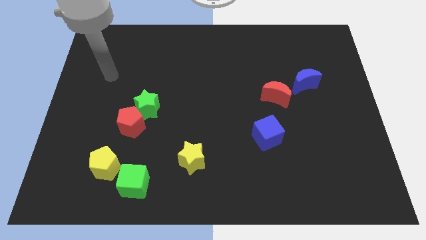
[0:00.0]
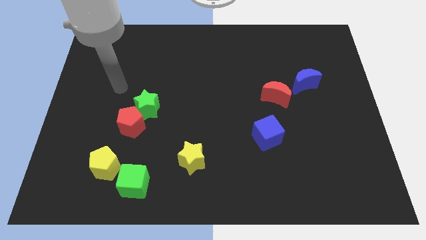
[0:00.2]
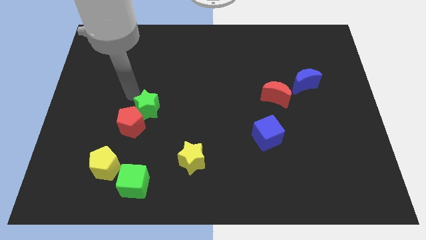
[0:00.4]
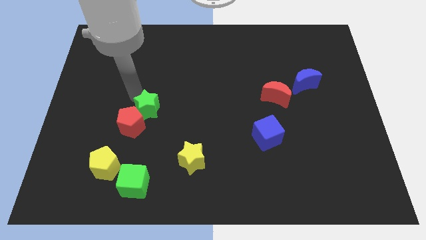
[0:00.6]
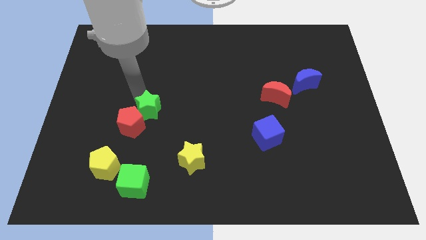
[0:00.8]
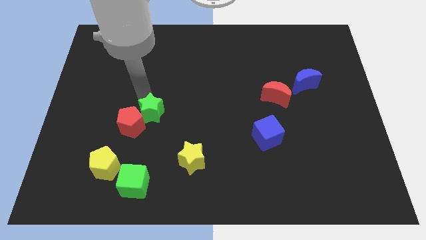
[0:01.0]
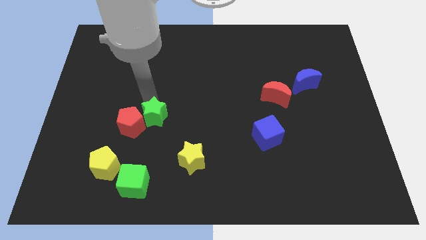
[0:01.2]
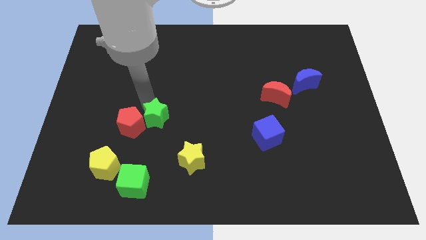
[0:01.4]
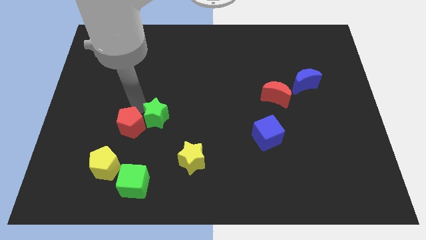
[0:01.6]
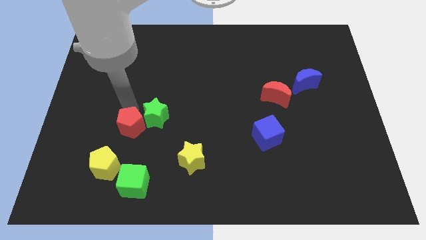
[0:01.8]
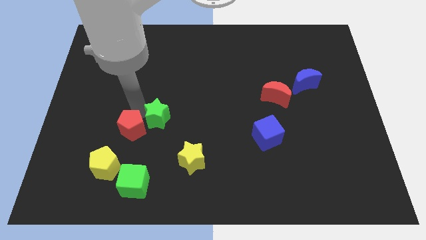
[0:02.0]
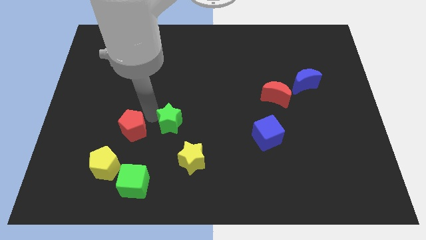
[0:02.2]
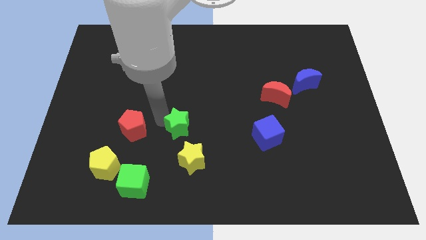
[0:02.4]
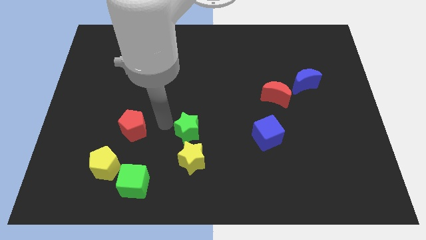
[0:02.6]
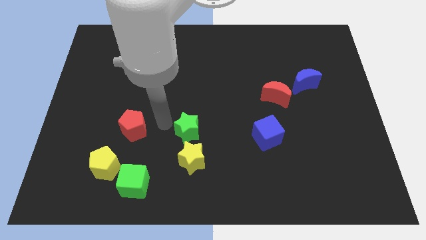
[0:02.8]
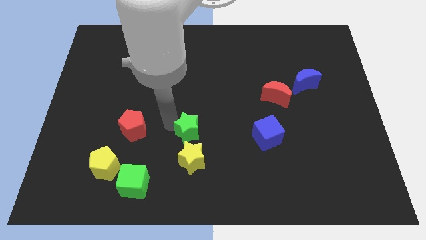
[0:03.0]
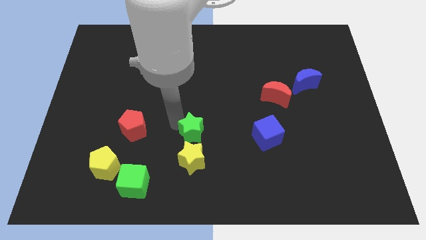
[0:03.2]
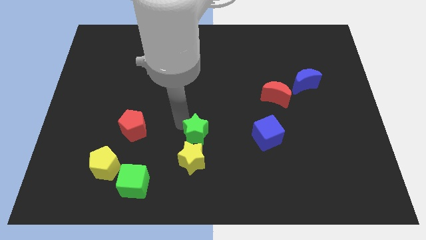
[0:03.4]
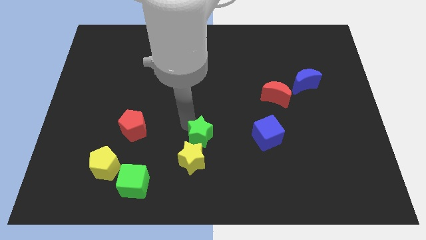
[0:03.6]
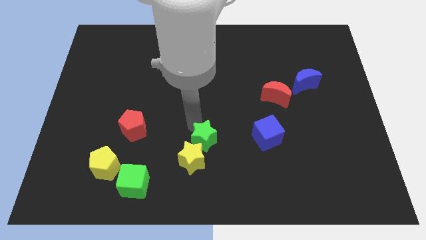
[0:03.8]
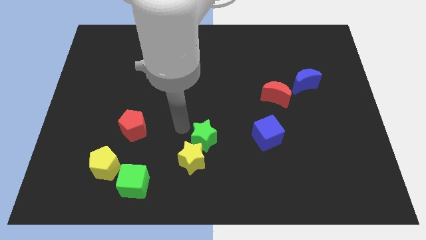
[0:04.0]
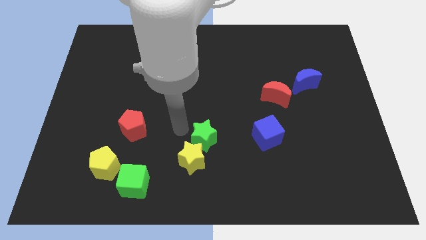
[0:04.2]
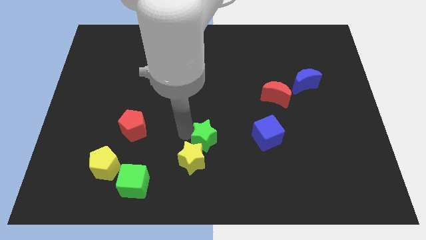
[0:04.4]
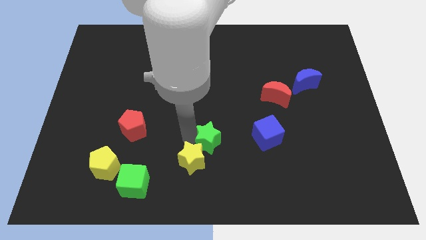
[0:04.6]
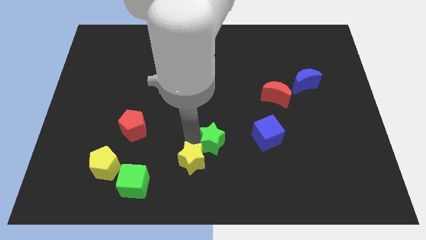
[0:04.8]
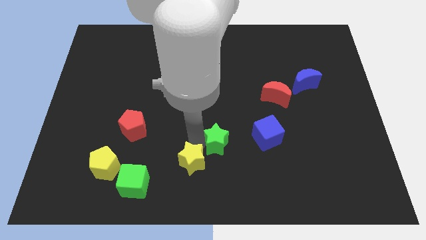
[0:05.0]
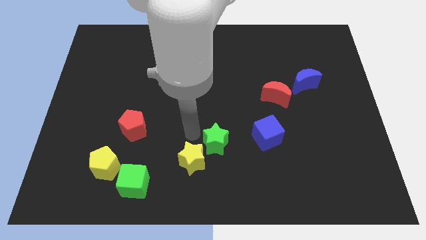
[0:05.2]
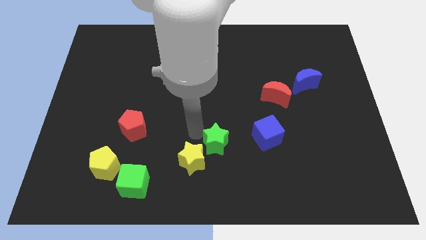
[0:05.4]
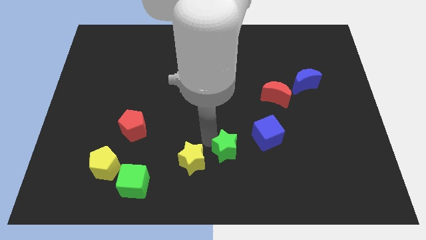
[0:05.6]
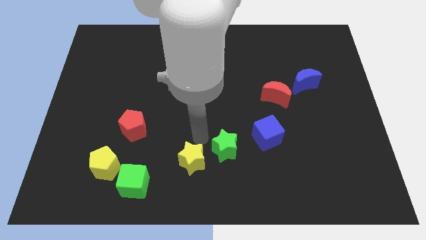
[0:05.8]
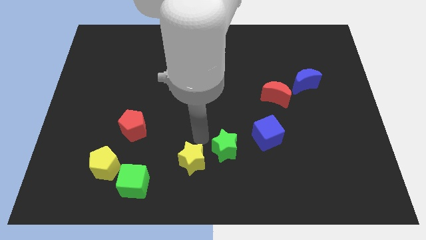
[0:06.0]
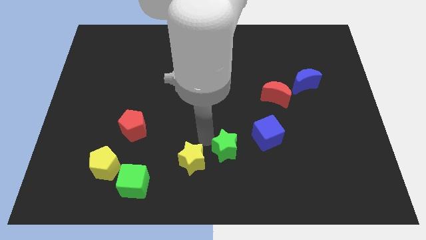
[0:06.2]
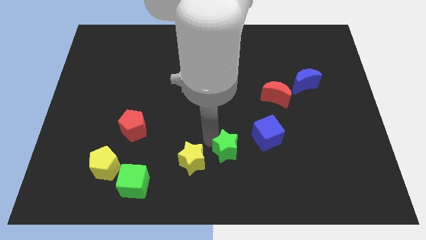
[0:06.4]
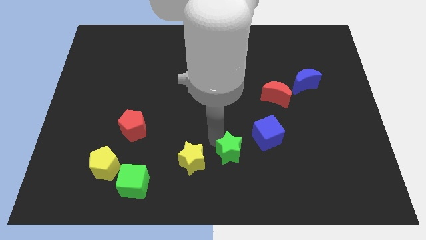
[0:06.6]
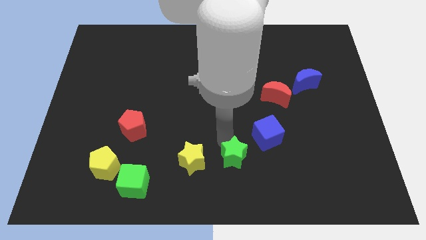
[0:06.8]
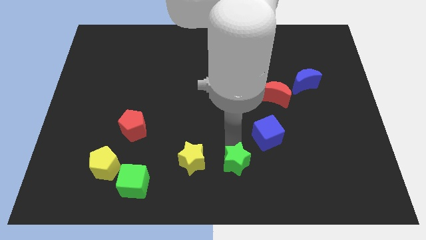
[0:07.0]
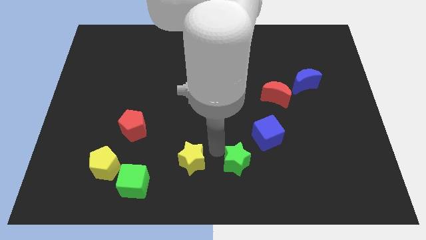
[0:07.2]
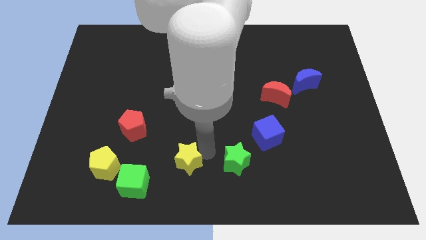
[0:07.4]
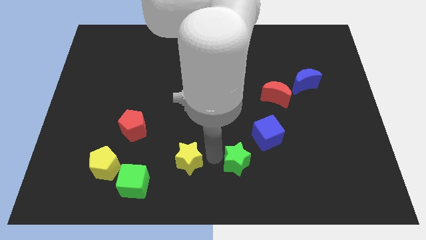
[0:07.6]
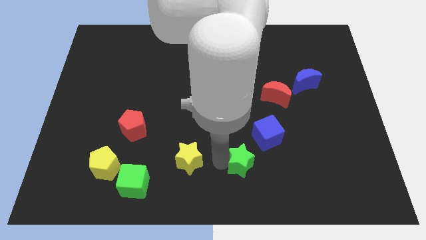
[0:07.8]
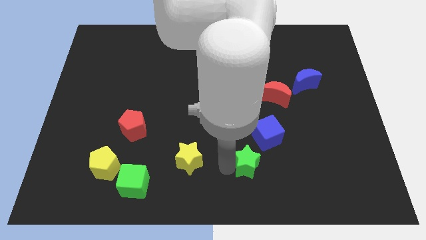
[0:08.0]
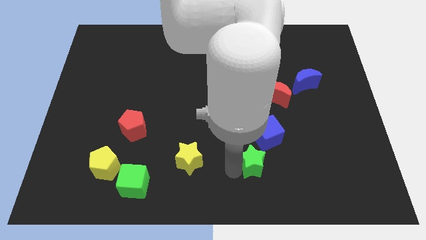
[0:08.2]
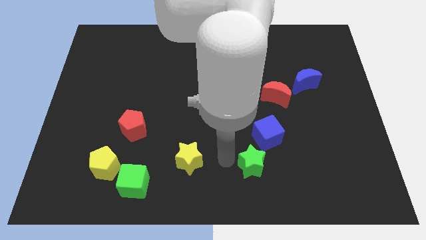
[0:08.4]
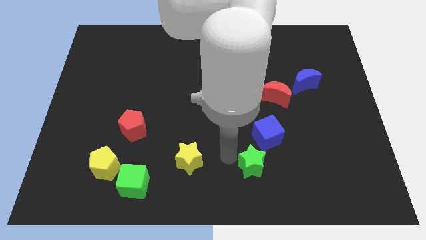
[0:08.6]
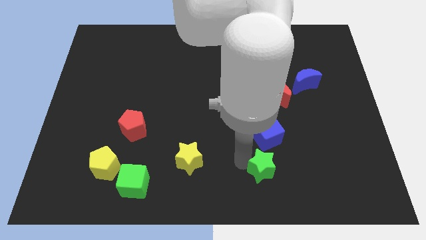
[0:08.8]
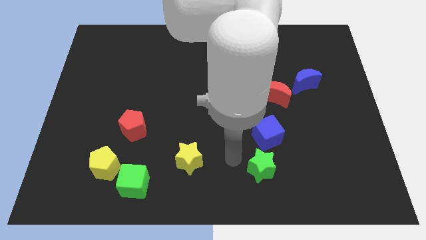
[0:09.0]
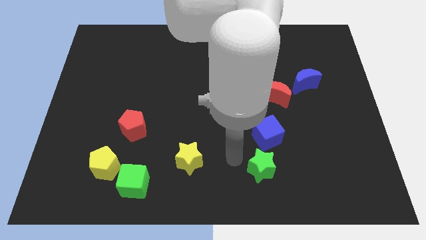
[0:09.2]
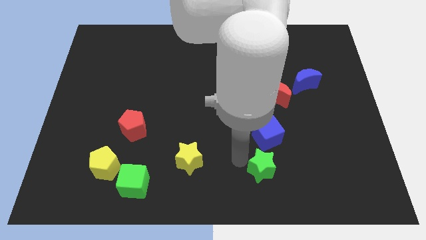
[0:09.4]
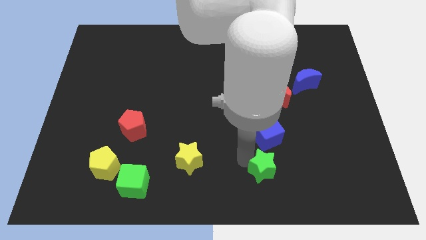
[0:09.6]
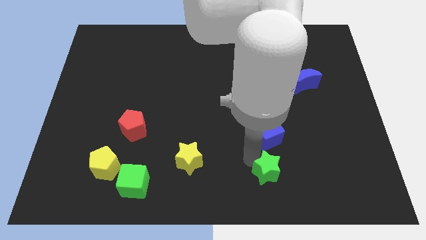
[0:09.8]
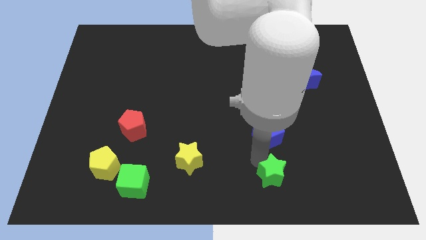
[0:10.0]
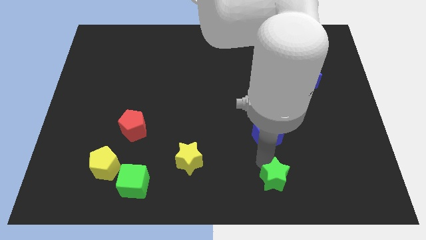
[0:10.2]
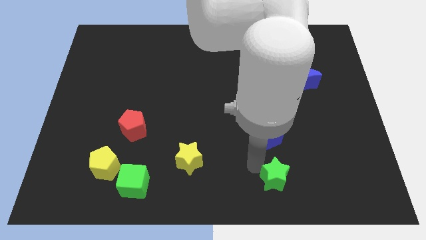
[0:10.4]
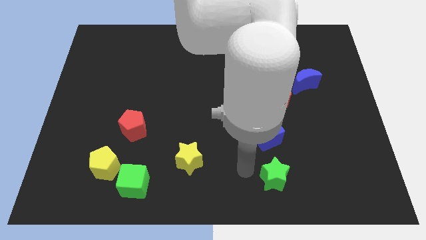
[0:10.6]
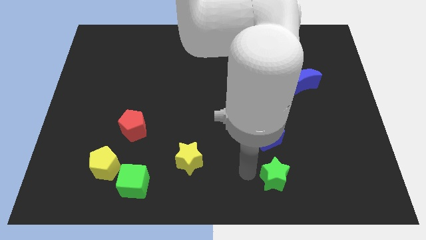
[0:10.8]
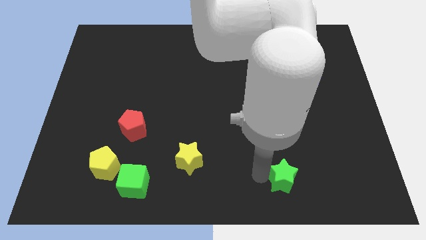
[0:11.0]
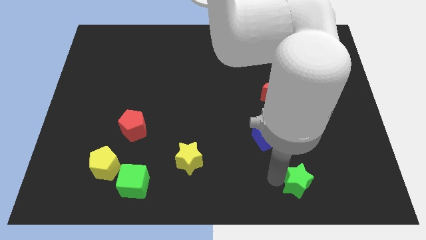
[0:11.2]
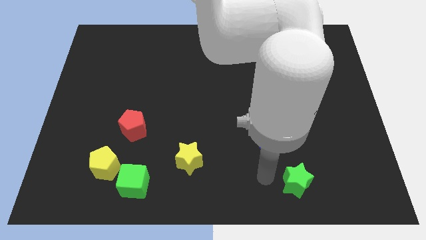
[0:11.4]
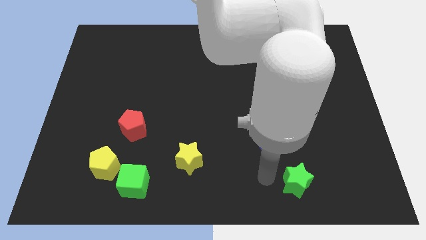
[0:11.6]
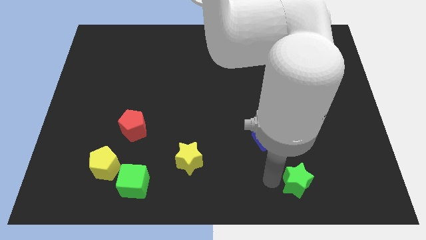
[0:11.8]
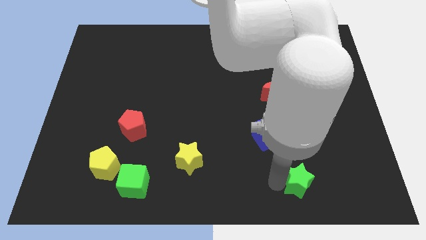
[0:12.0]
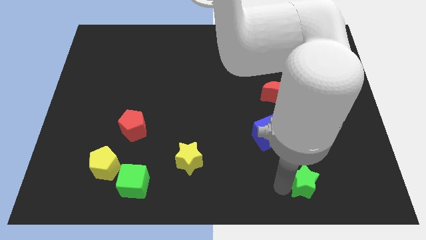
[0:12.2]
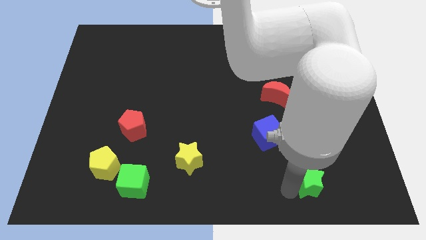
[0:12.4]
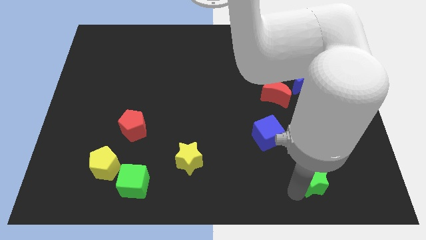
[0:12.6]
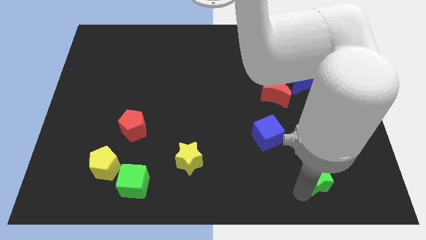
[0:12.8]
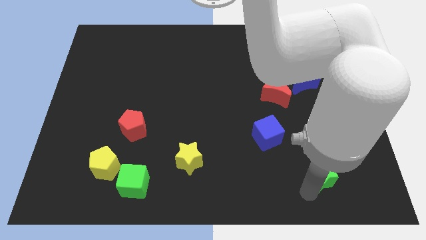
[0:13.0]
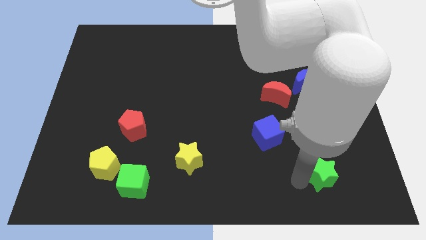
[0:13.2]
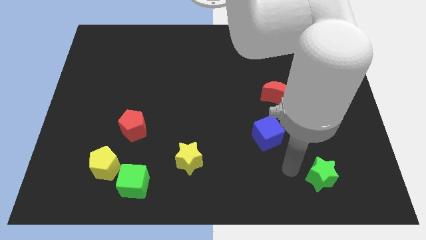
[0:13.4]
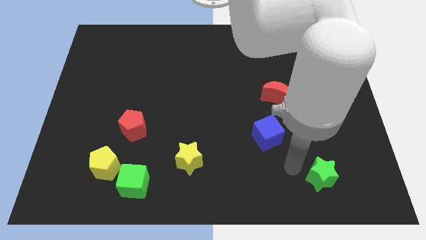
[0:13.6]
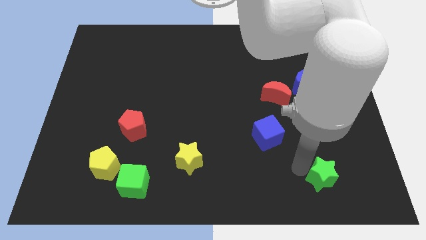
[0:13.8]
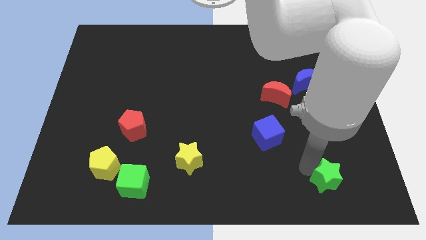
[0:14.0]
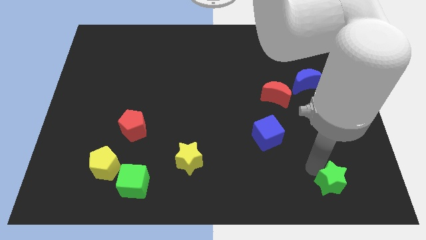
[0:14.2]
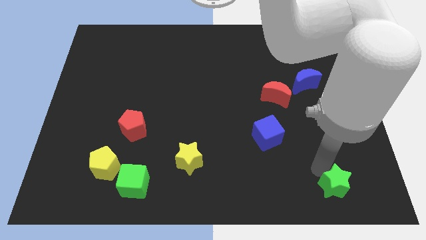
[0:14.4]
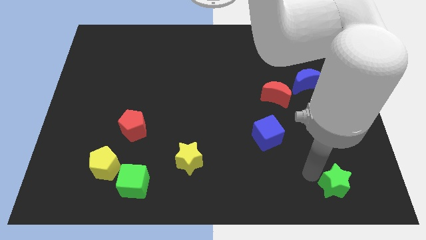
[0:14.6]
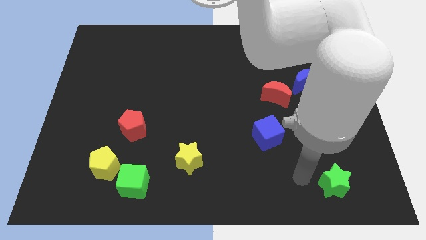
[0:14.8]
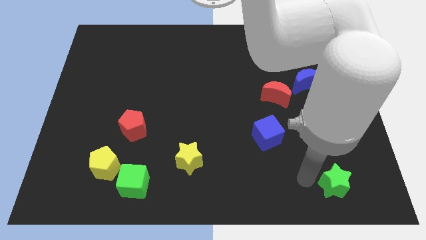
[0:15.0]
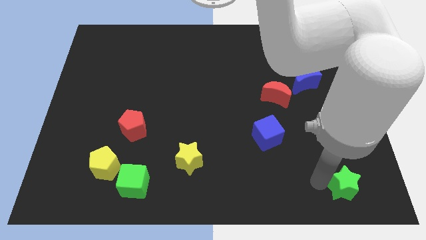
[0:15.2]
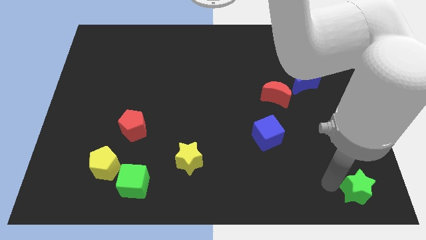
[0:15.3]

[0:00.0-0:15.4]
put the green star to the bottom right corner
